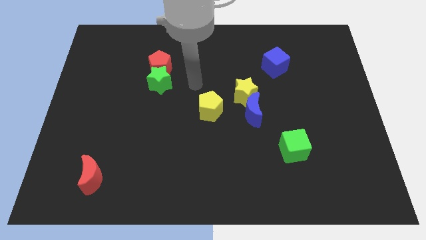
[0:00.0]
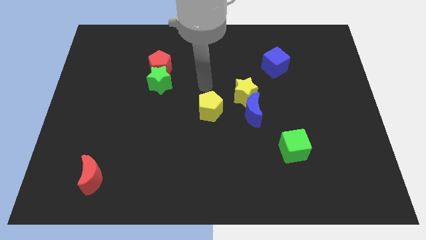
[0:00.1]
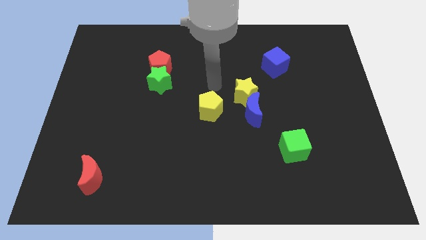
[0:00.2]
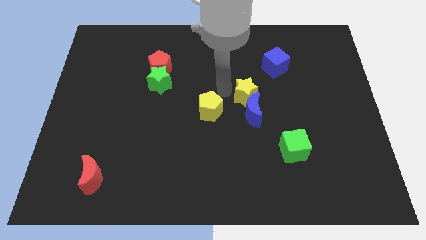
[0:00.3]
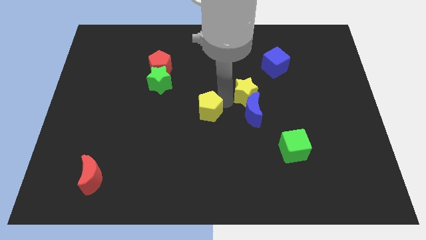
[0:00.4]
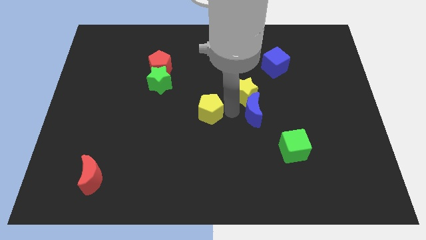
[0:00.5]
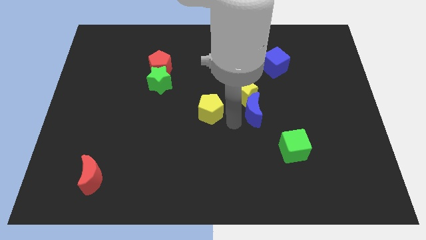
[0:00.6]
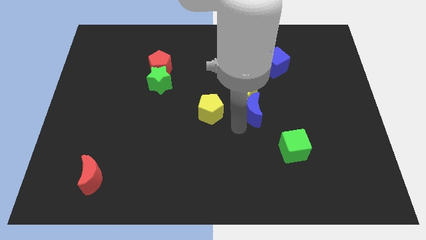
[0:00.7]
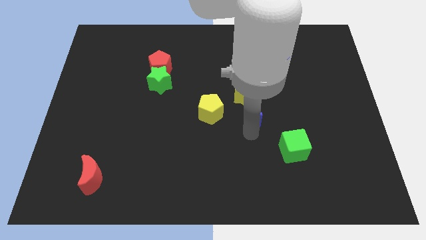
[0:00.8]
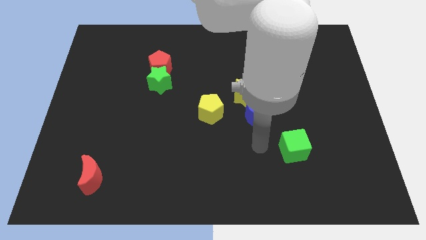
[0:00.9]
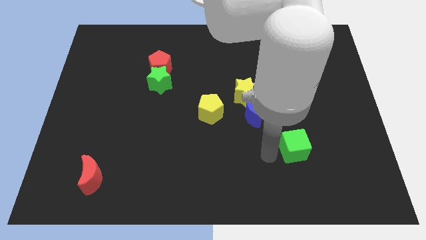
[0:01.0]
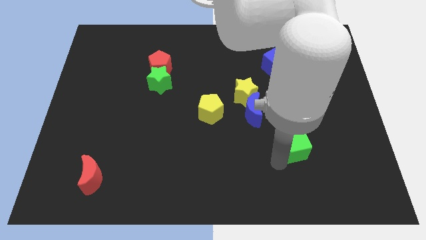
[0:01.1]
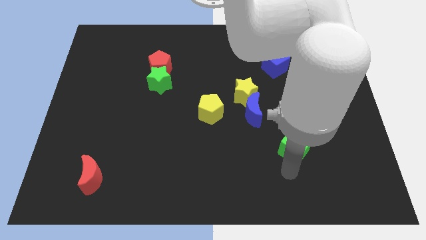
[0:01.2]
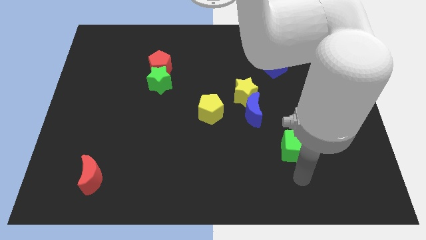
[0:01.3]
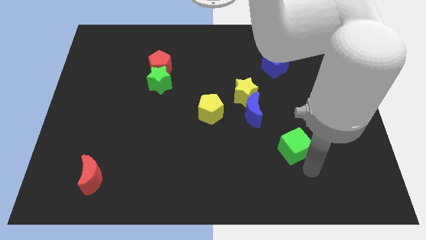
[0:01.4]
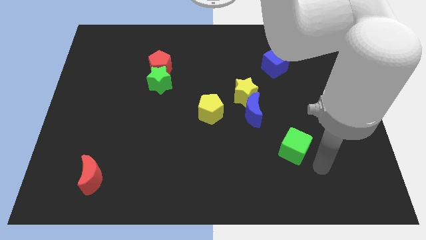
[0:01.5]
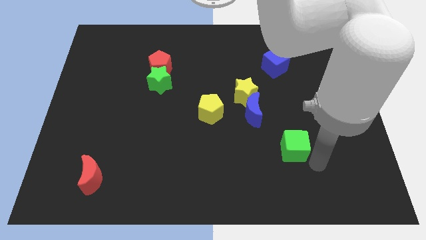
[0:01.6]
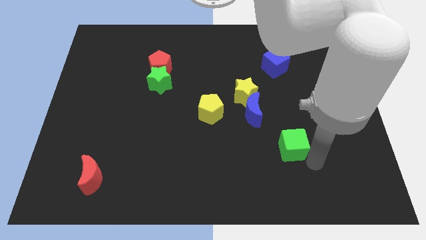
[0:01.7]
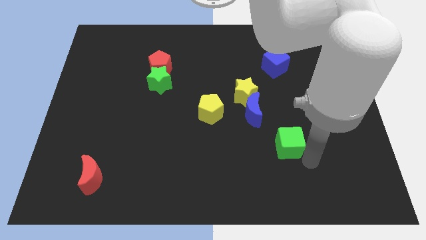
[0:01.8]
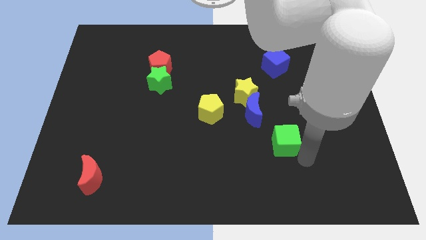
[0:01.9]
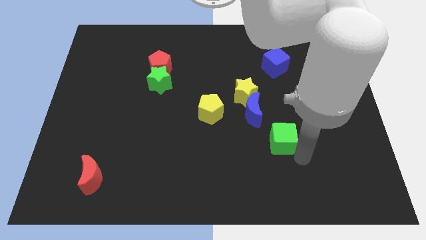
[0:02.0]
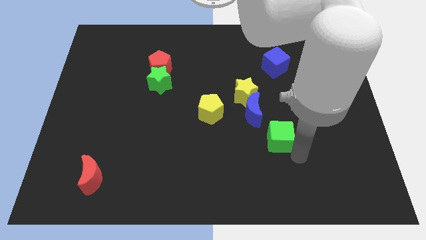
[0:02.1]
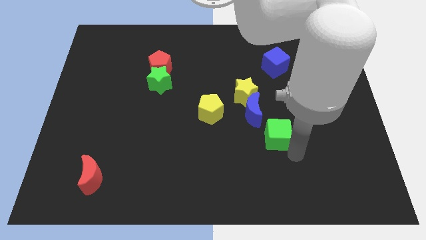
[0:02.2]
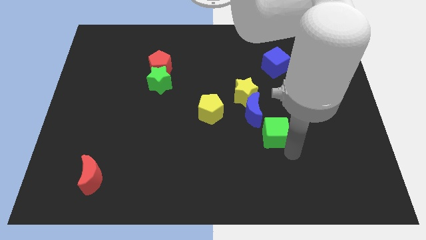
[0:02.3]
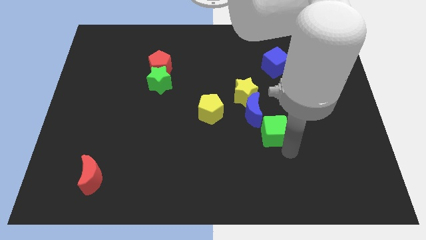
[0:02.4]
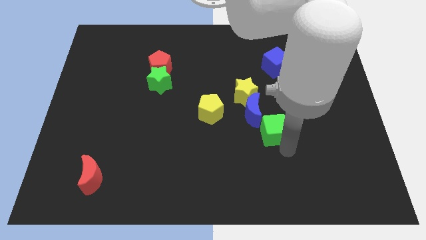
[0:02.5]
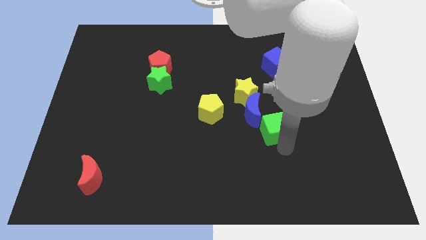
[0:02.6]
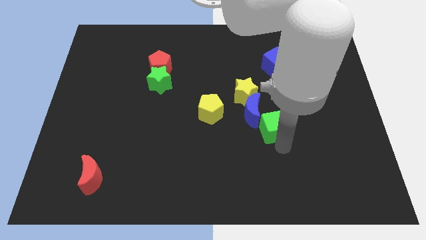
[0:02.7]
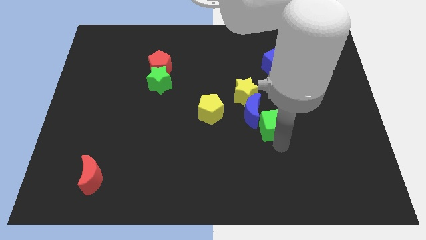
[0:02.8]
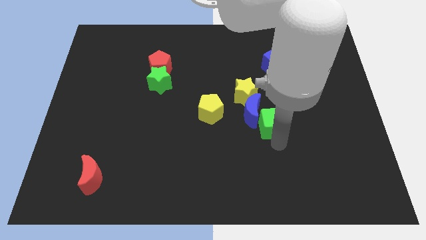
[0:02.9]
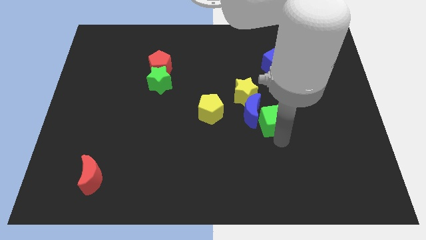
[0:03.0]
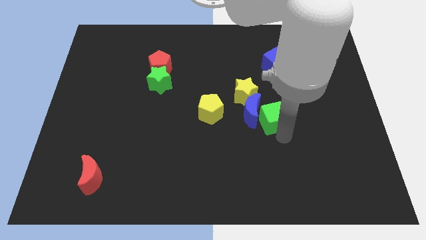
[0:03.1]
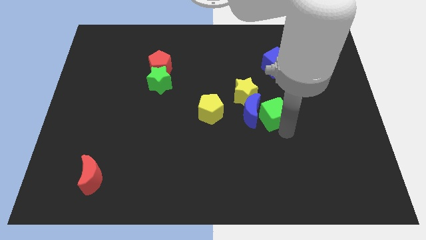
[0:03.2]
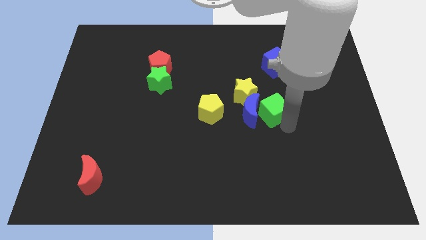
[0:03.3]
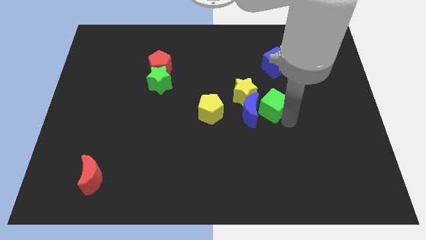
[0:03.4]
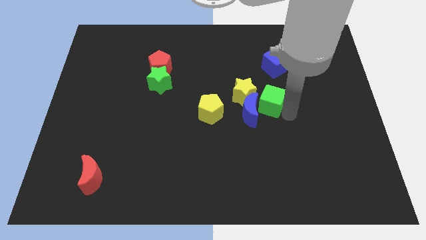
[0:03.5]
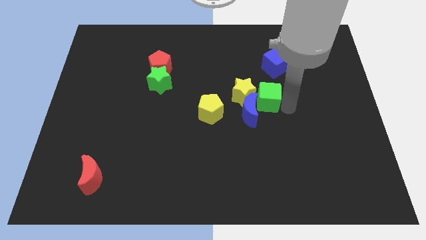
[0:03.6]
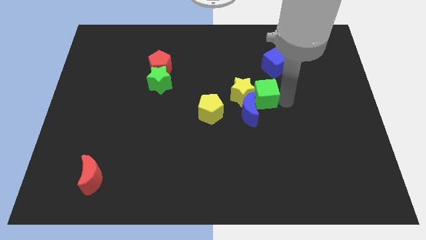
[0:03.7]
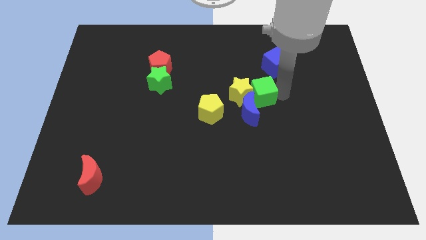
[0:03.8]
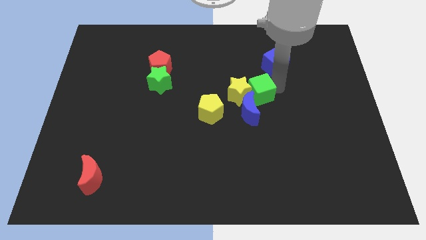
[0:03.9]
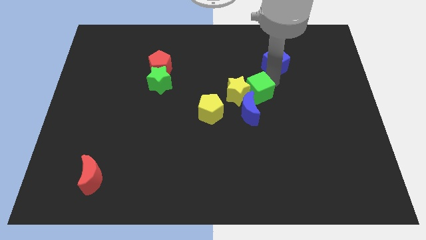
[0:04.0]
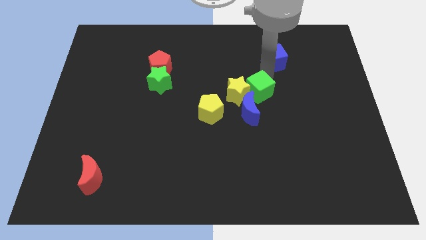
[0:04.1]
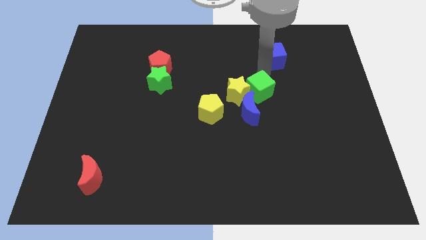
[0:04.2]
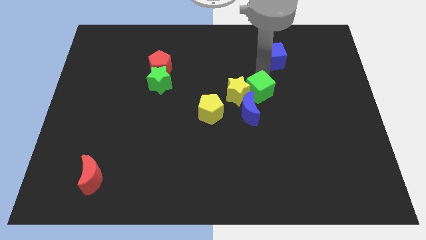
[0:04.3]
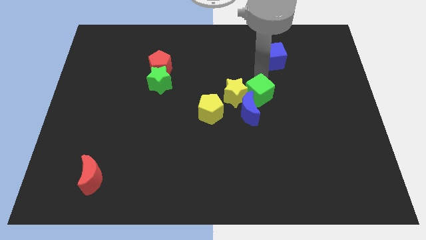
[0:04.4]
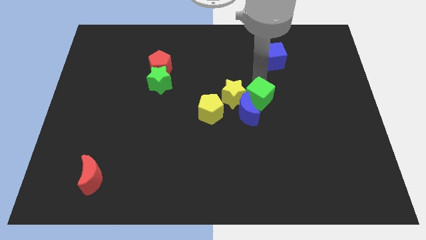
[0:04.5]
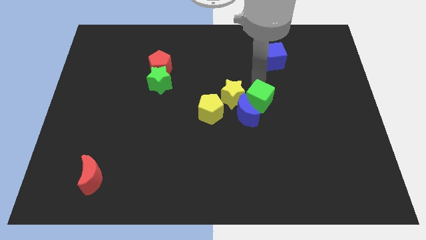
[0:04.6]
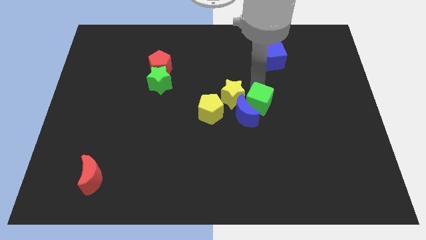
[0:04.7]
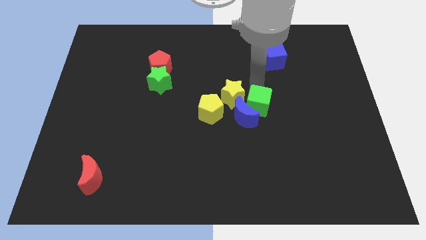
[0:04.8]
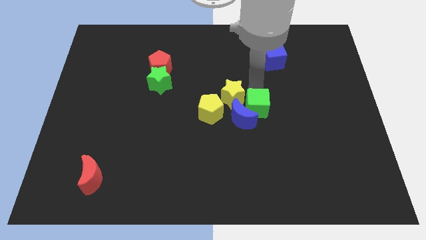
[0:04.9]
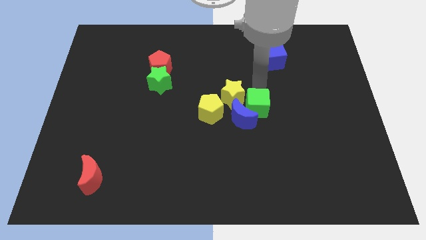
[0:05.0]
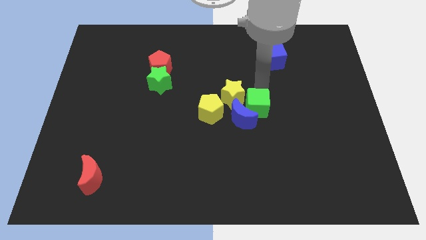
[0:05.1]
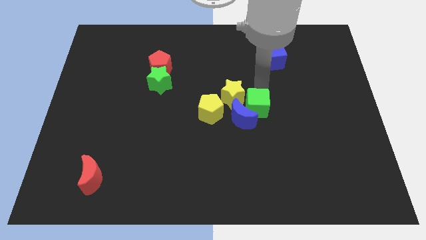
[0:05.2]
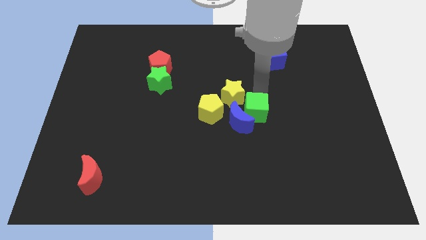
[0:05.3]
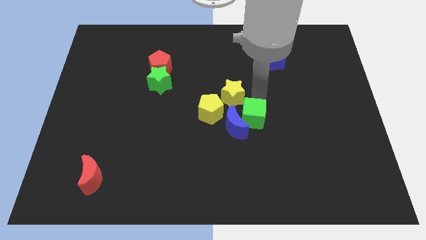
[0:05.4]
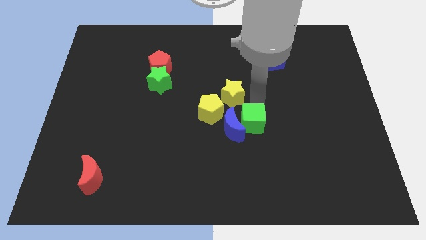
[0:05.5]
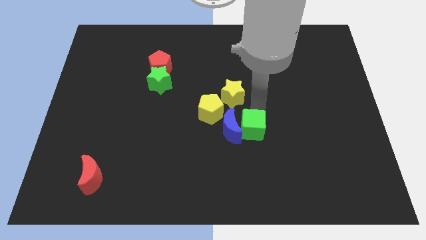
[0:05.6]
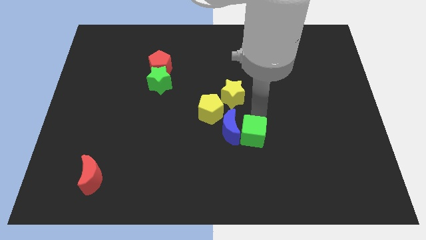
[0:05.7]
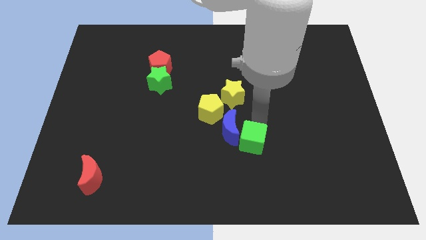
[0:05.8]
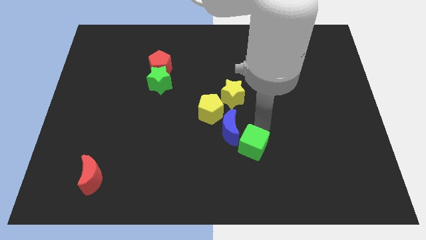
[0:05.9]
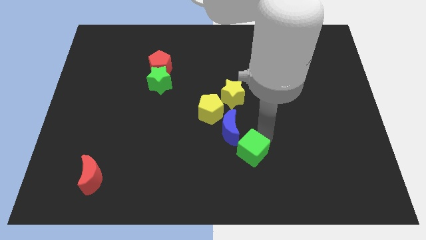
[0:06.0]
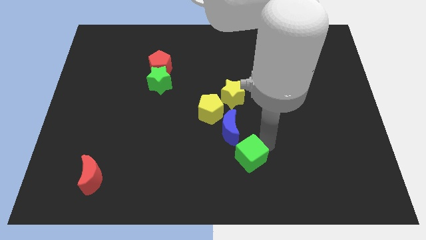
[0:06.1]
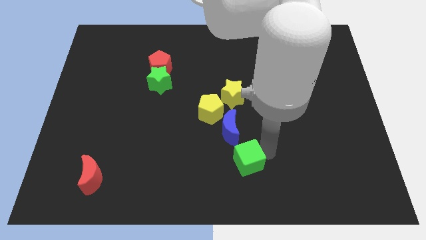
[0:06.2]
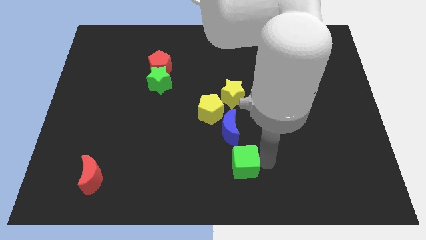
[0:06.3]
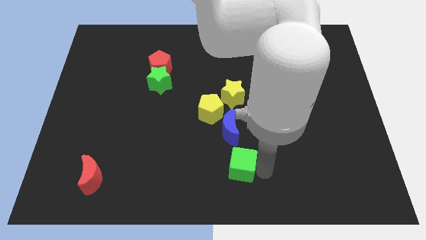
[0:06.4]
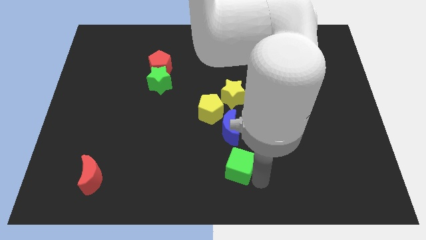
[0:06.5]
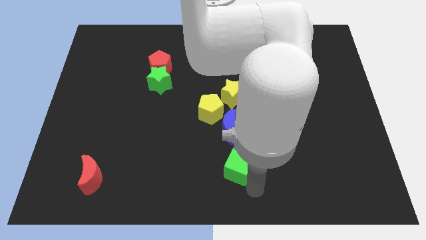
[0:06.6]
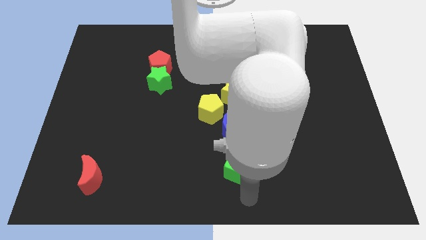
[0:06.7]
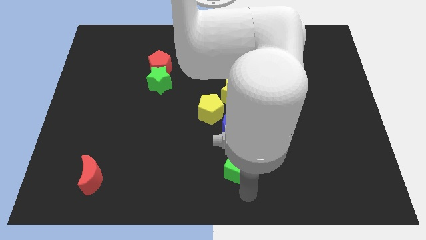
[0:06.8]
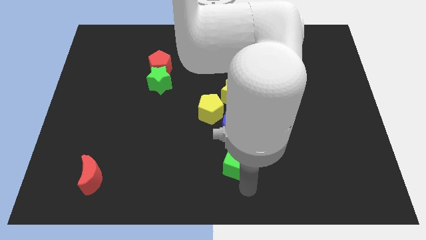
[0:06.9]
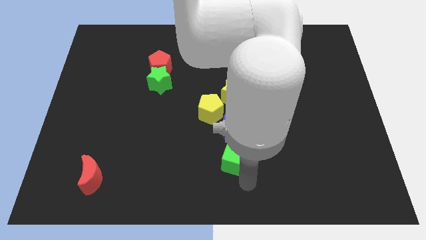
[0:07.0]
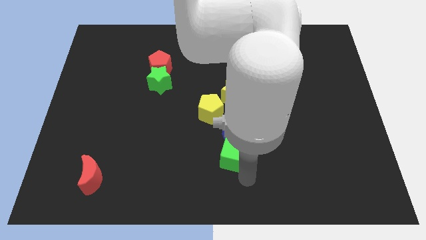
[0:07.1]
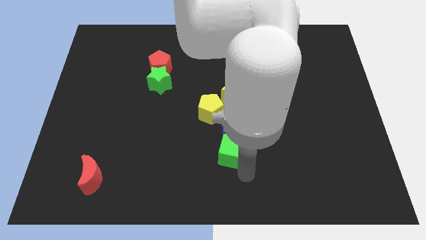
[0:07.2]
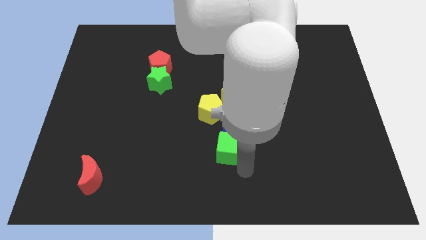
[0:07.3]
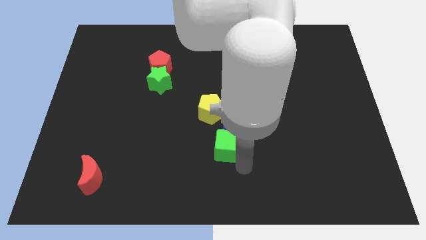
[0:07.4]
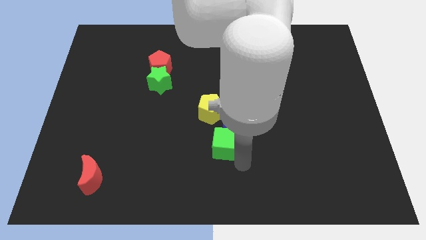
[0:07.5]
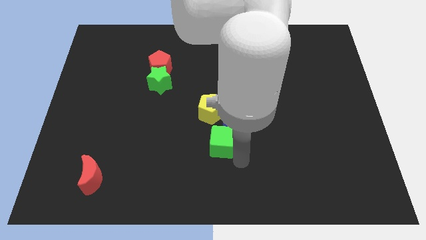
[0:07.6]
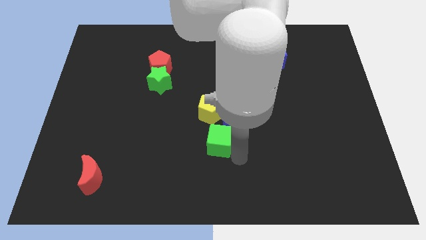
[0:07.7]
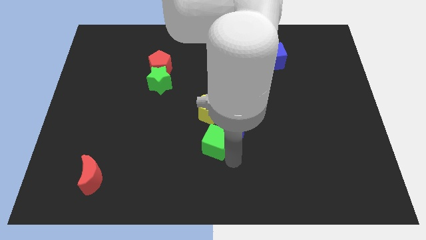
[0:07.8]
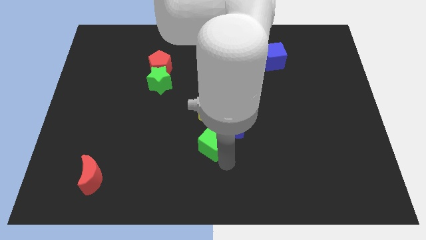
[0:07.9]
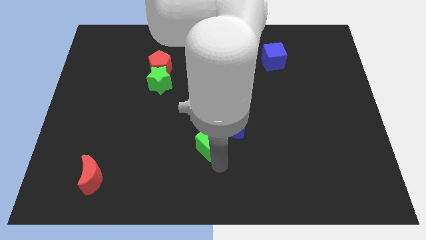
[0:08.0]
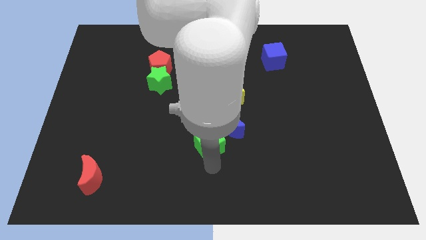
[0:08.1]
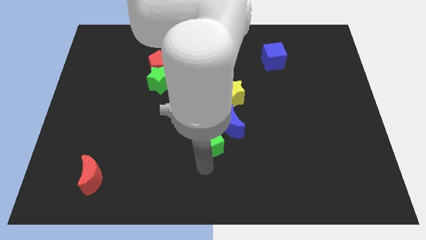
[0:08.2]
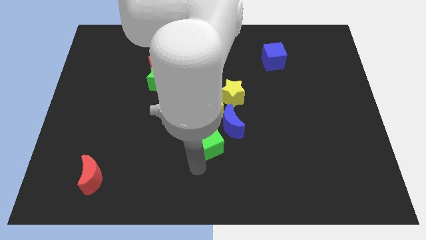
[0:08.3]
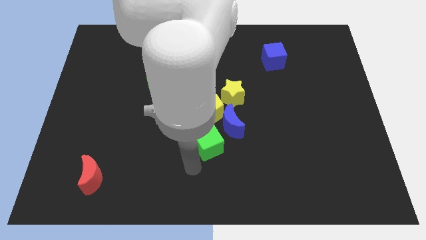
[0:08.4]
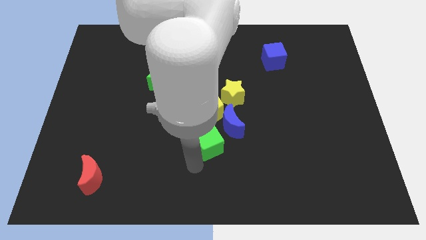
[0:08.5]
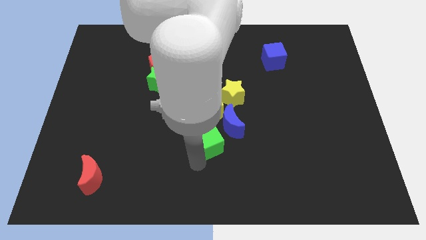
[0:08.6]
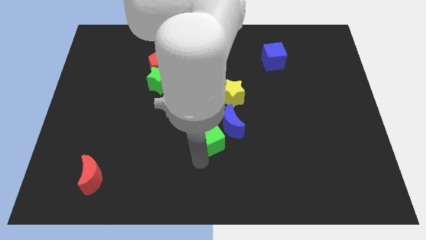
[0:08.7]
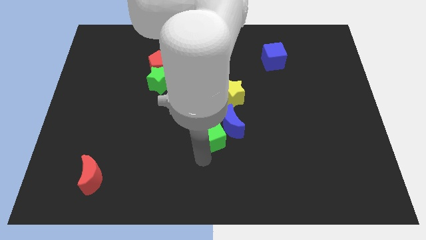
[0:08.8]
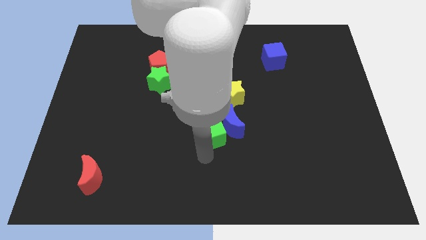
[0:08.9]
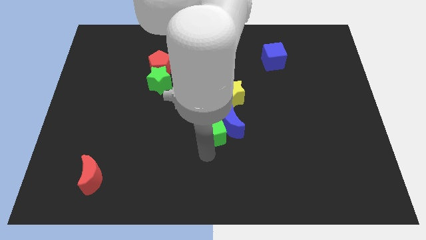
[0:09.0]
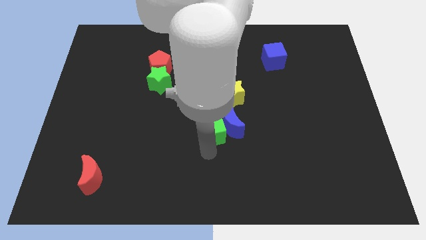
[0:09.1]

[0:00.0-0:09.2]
slide the green cube to the yellow pentagon
